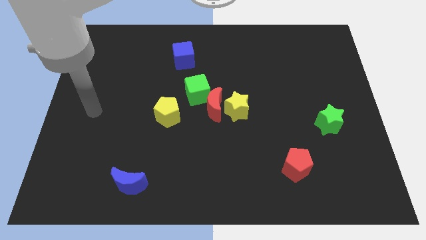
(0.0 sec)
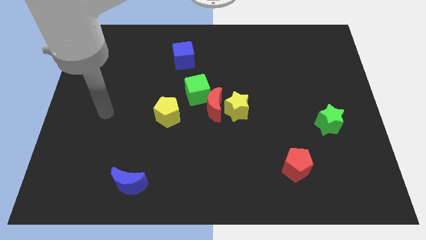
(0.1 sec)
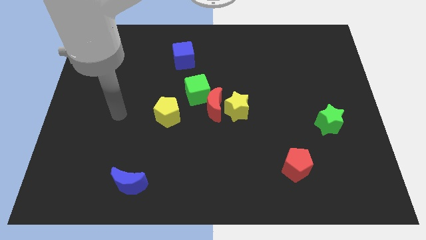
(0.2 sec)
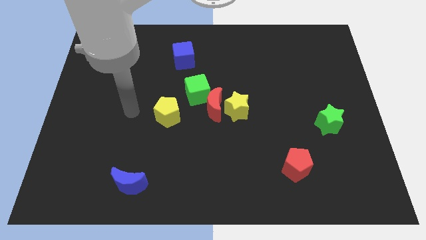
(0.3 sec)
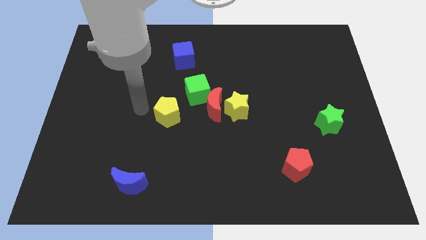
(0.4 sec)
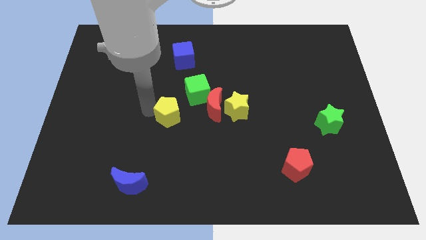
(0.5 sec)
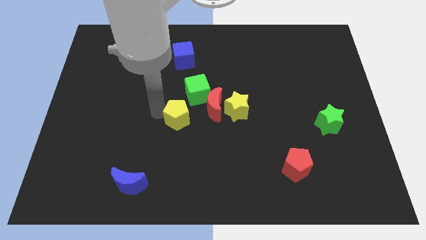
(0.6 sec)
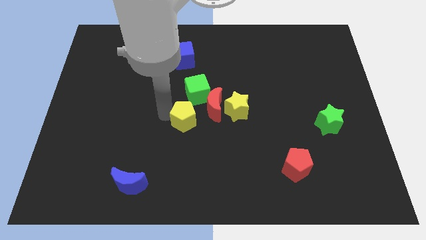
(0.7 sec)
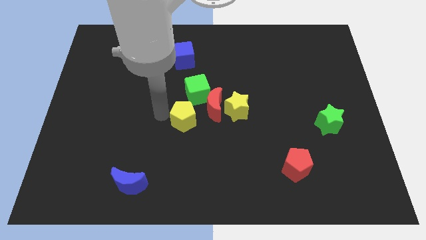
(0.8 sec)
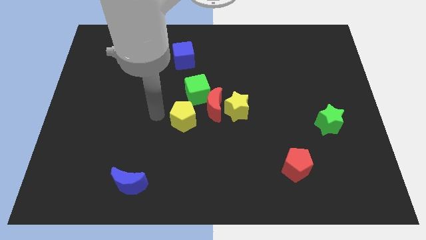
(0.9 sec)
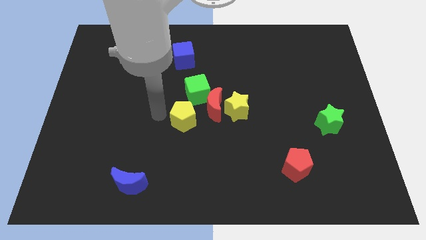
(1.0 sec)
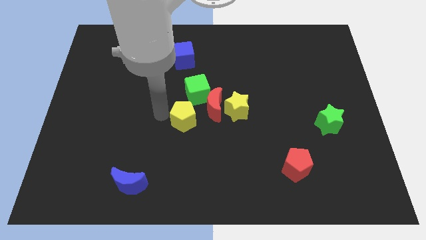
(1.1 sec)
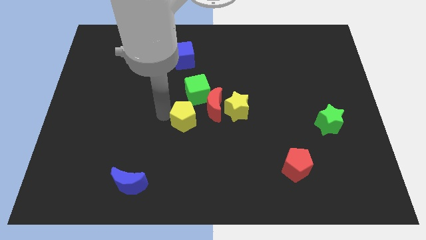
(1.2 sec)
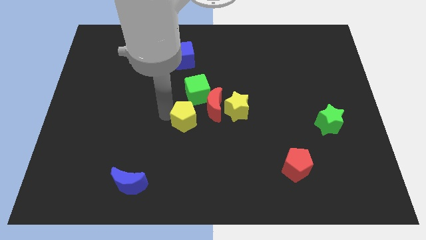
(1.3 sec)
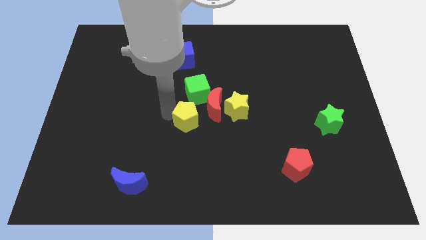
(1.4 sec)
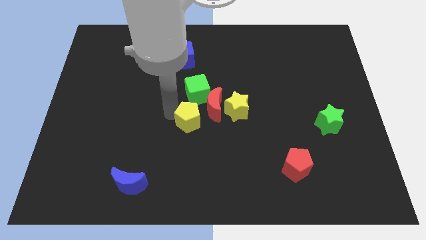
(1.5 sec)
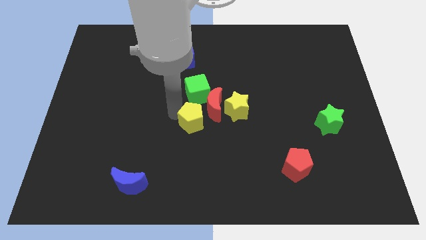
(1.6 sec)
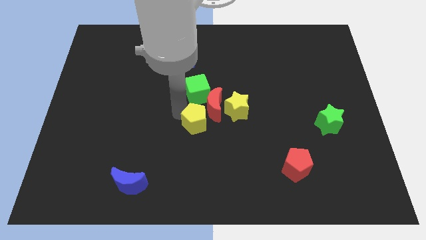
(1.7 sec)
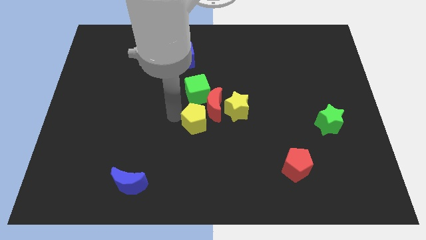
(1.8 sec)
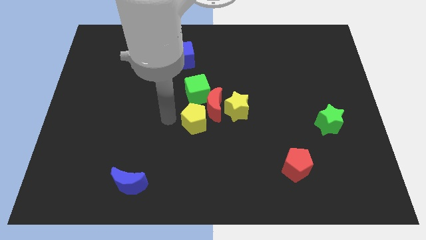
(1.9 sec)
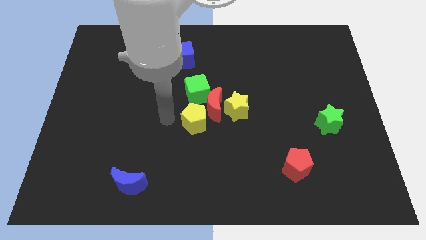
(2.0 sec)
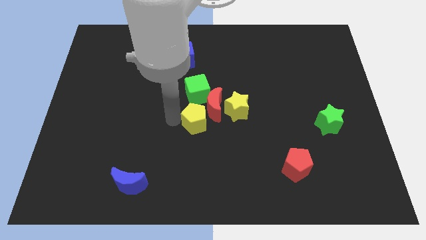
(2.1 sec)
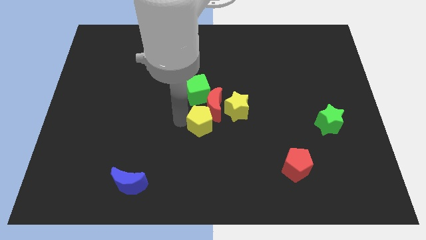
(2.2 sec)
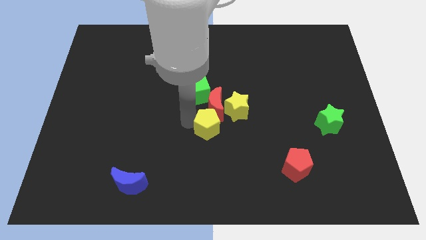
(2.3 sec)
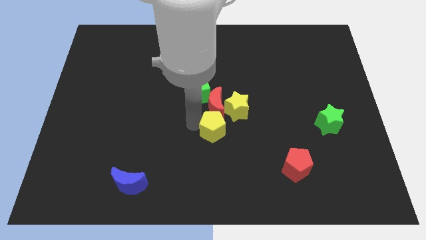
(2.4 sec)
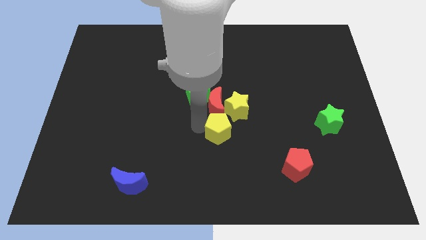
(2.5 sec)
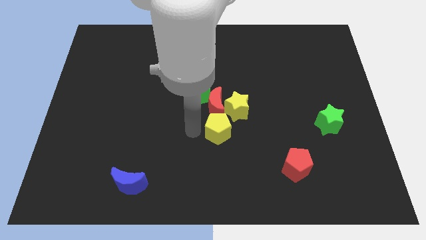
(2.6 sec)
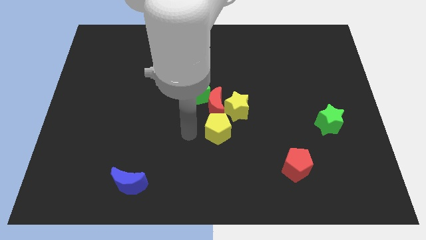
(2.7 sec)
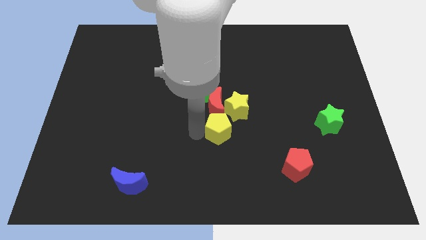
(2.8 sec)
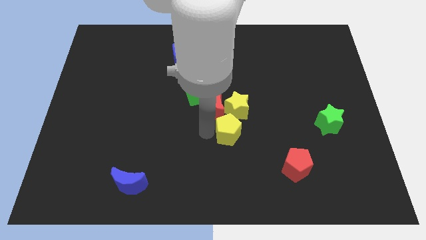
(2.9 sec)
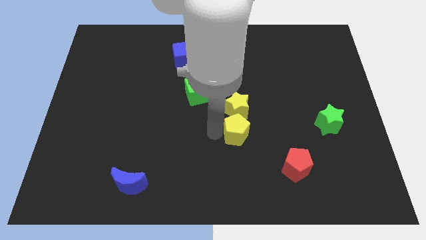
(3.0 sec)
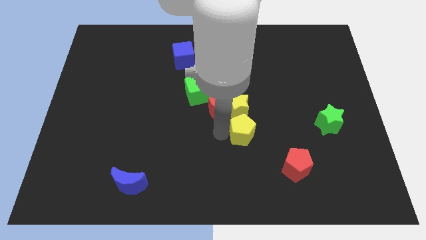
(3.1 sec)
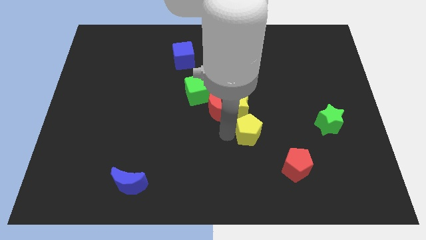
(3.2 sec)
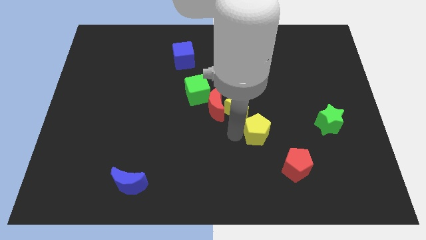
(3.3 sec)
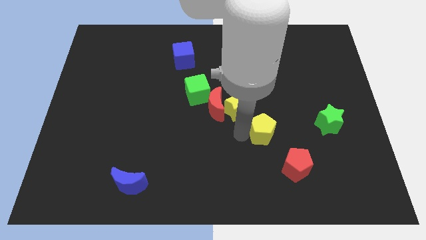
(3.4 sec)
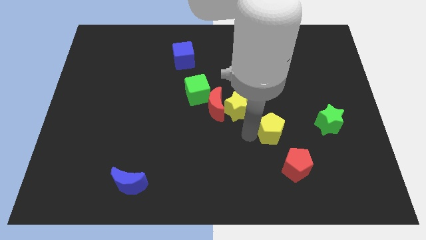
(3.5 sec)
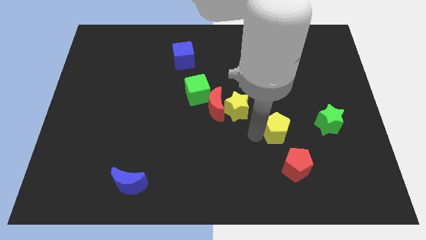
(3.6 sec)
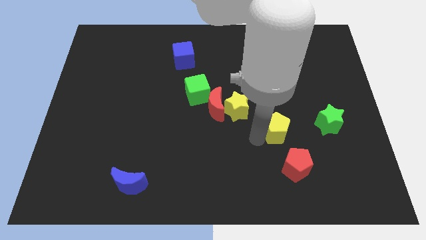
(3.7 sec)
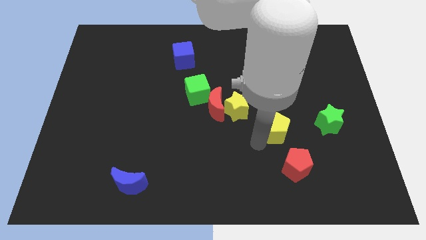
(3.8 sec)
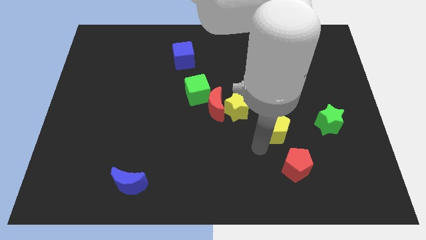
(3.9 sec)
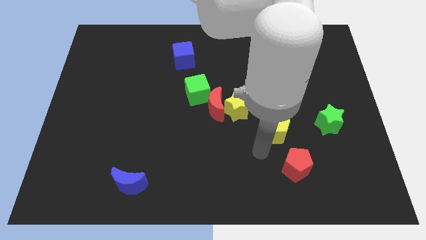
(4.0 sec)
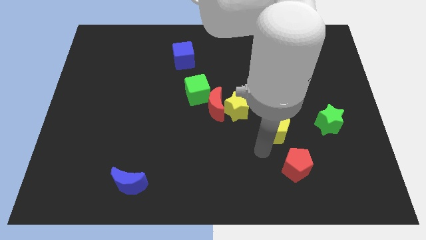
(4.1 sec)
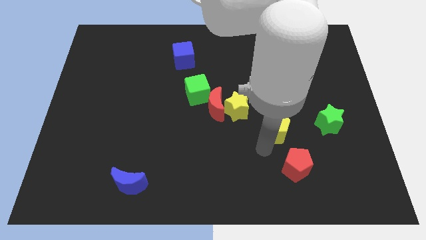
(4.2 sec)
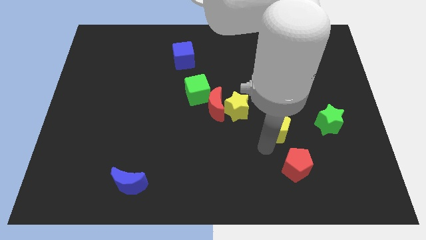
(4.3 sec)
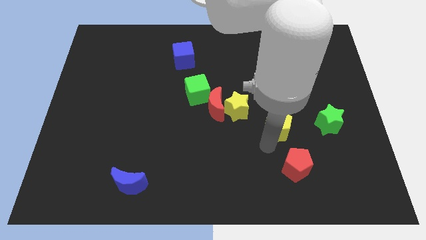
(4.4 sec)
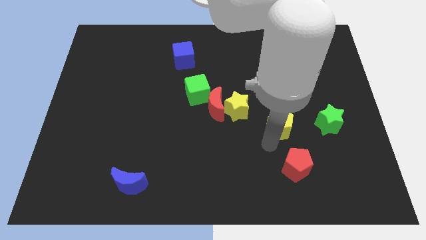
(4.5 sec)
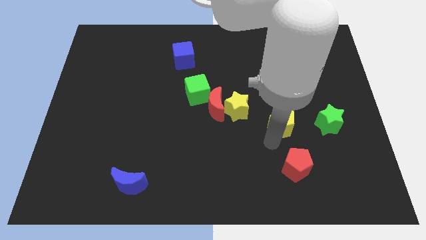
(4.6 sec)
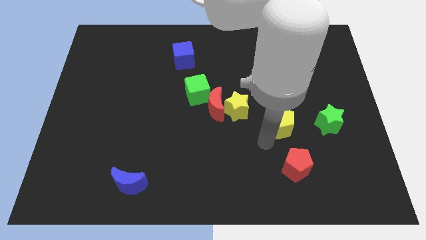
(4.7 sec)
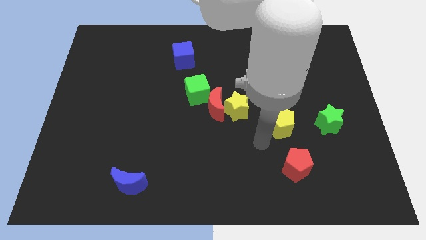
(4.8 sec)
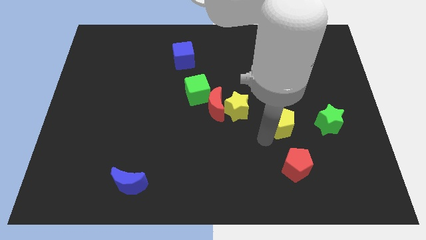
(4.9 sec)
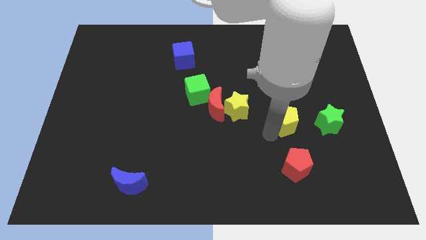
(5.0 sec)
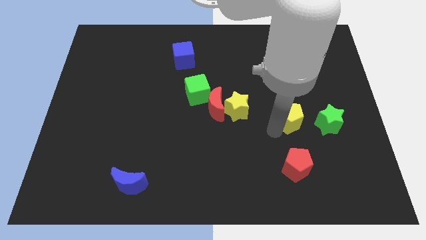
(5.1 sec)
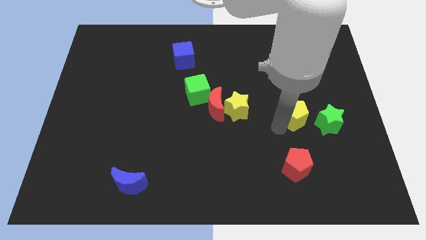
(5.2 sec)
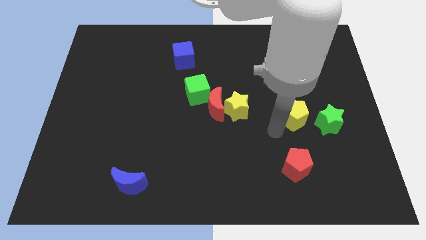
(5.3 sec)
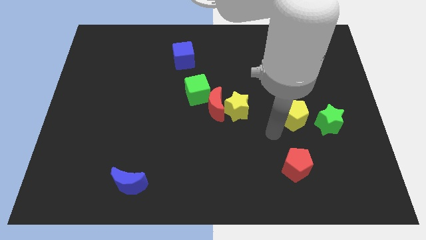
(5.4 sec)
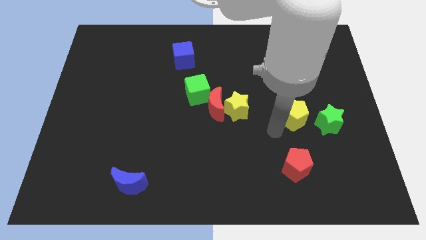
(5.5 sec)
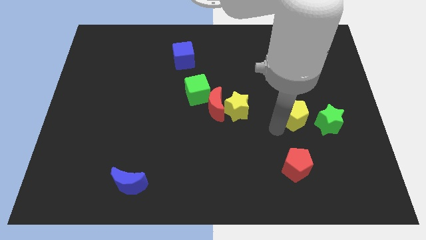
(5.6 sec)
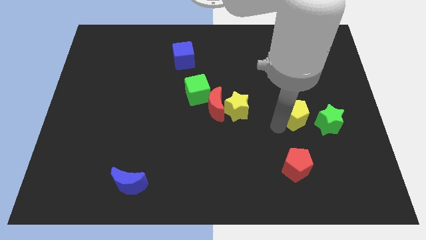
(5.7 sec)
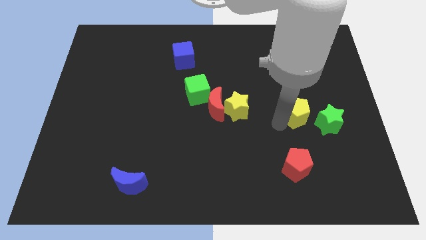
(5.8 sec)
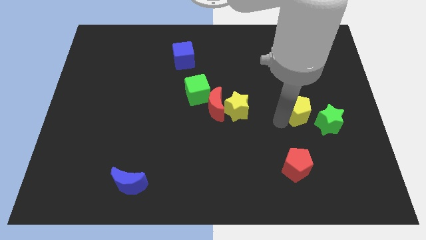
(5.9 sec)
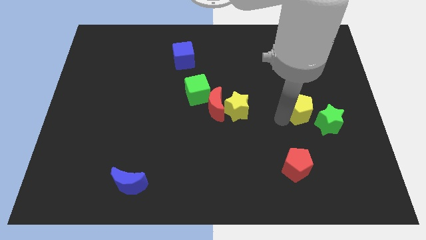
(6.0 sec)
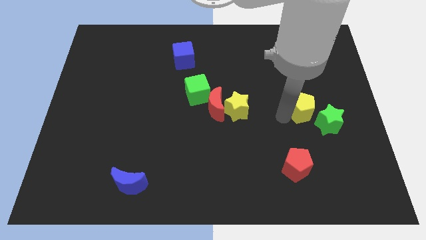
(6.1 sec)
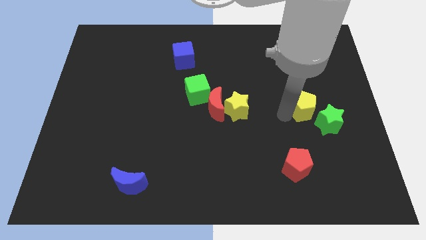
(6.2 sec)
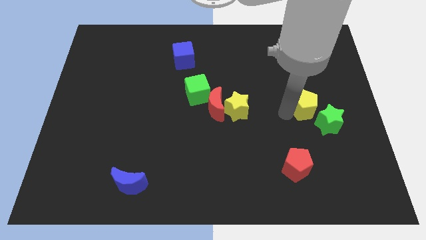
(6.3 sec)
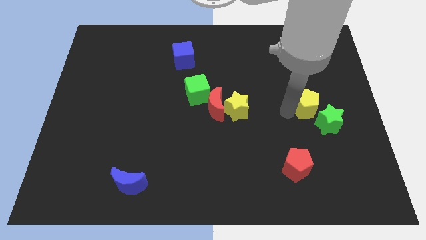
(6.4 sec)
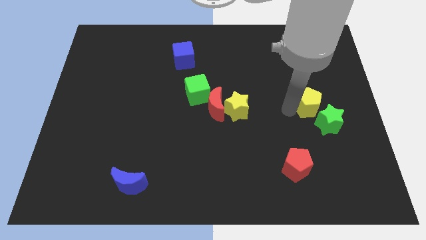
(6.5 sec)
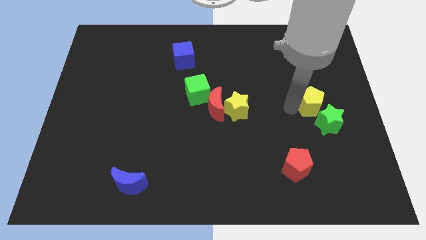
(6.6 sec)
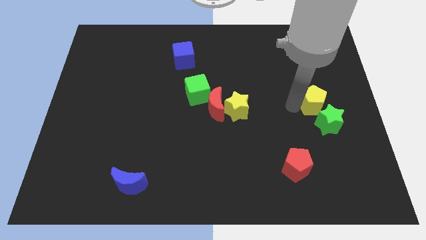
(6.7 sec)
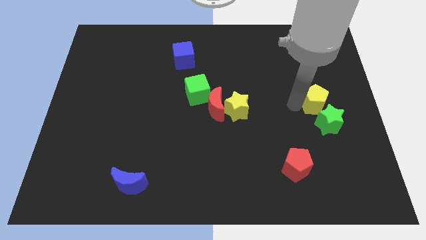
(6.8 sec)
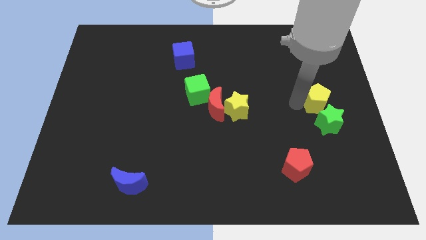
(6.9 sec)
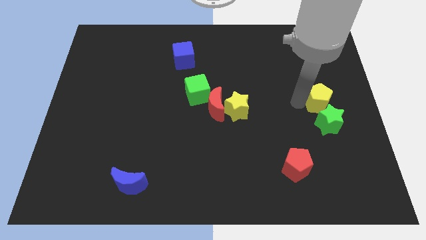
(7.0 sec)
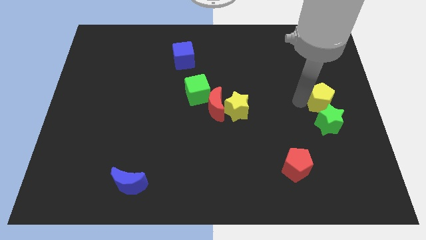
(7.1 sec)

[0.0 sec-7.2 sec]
put the yellow pentagon to the right side of the board
